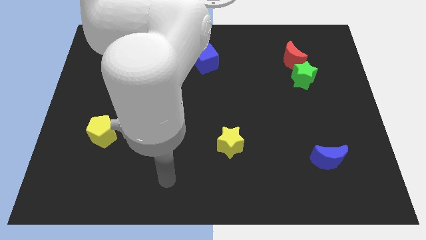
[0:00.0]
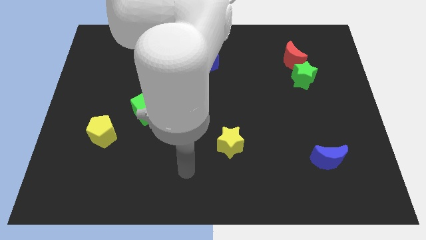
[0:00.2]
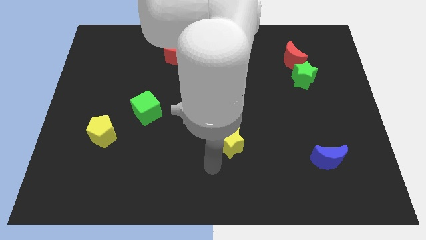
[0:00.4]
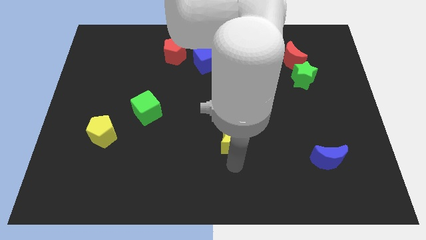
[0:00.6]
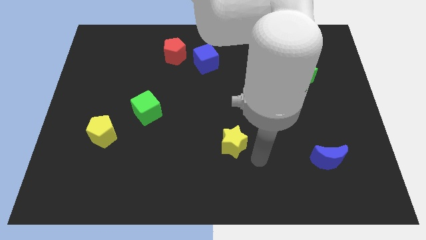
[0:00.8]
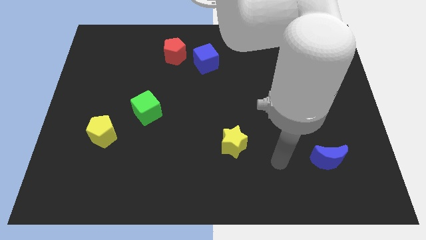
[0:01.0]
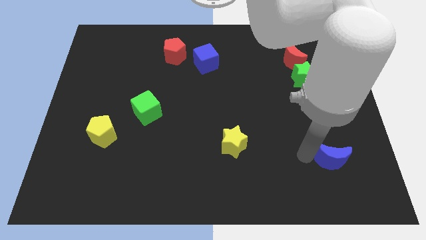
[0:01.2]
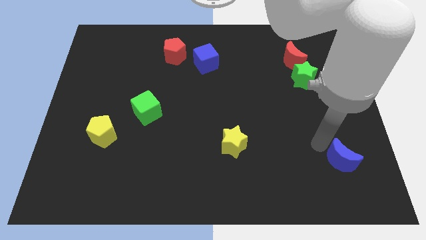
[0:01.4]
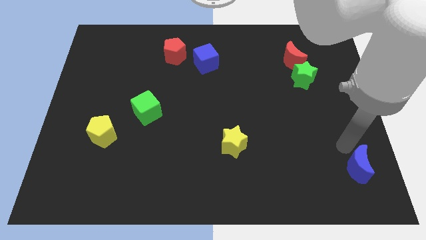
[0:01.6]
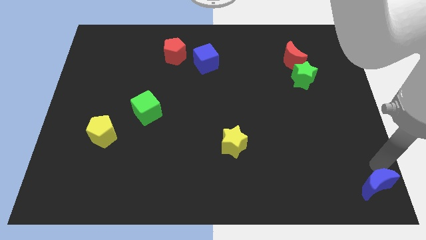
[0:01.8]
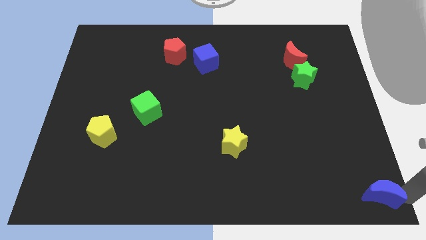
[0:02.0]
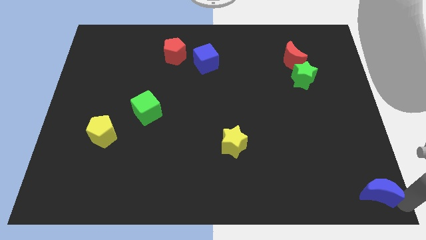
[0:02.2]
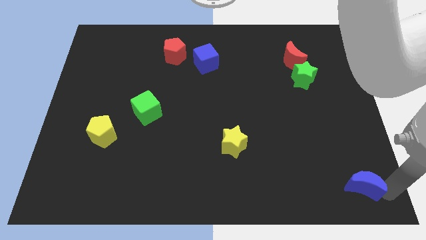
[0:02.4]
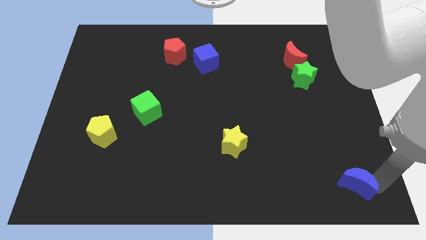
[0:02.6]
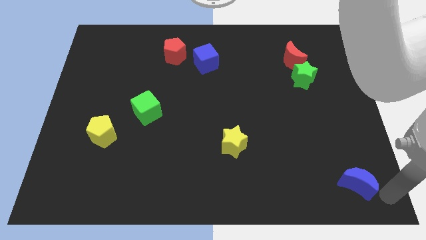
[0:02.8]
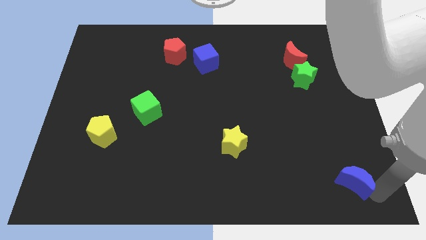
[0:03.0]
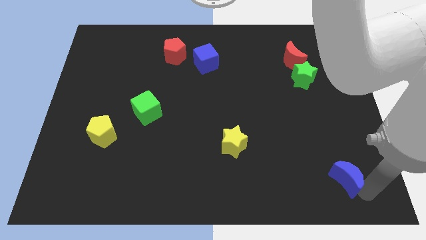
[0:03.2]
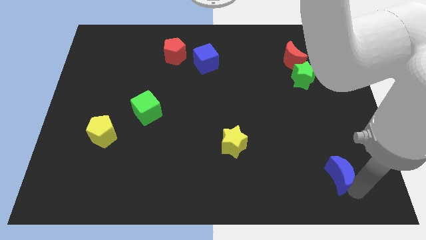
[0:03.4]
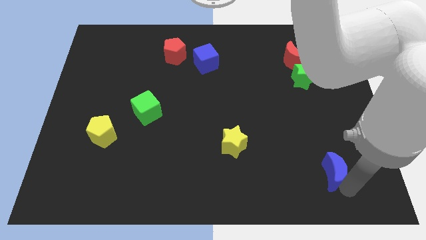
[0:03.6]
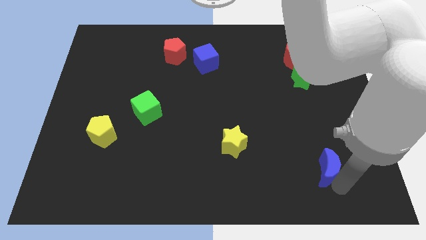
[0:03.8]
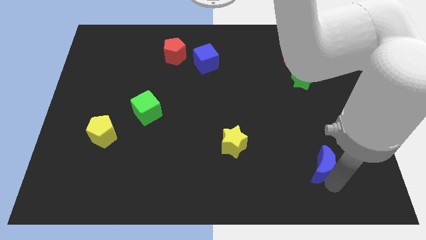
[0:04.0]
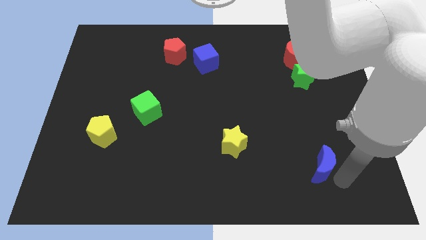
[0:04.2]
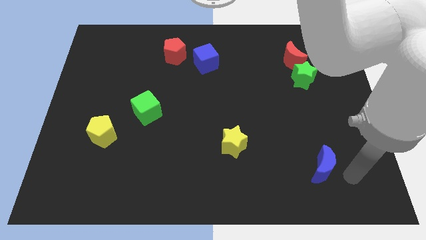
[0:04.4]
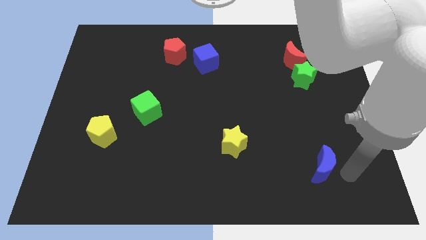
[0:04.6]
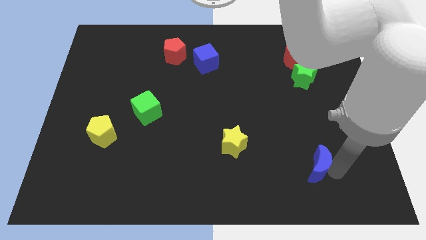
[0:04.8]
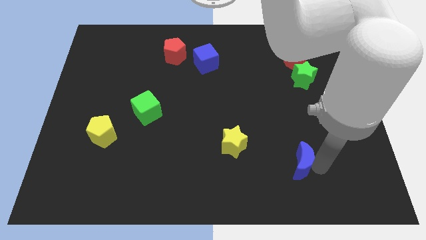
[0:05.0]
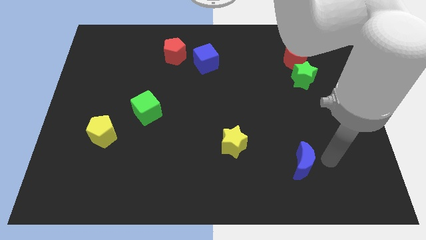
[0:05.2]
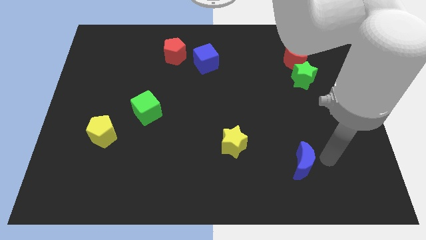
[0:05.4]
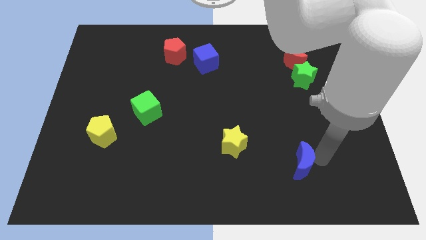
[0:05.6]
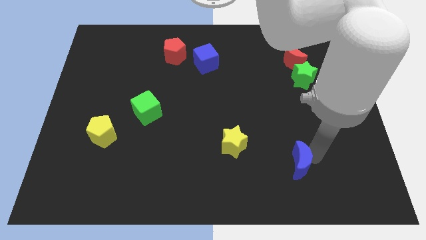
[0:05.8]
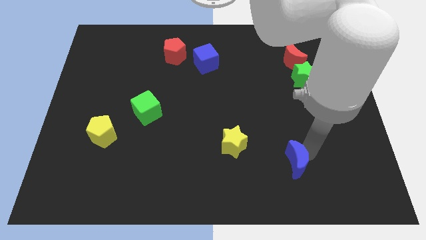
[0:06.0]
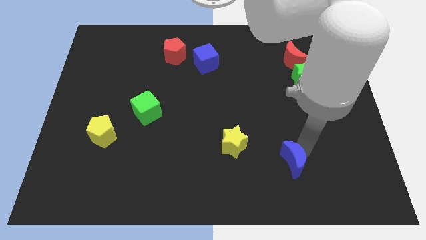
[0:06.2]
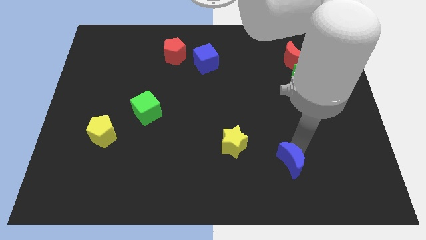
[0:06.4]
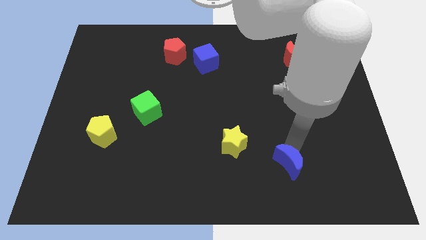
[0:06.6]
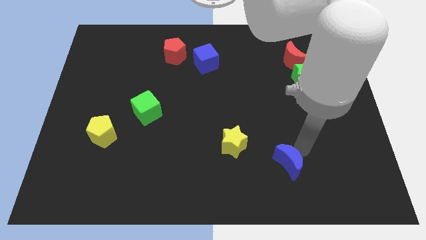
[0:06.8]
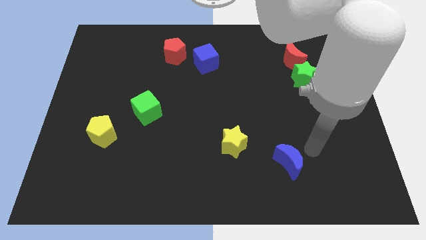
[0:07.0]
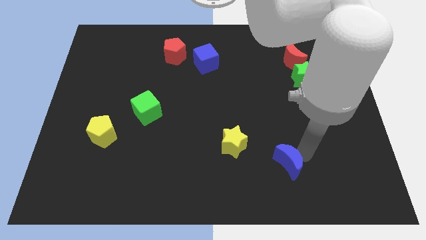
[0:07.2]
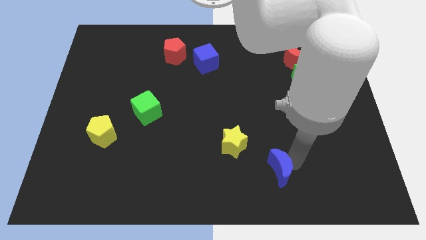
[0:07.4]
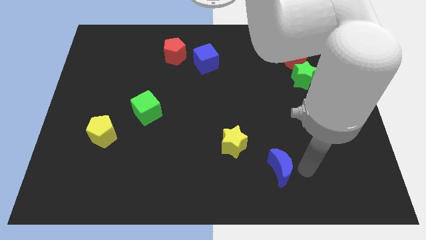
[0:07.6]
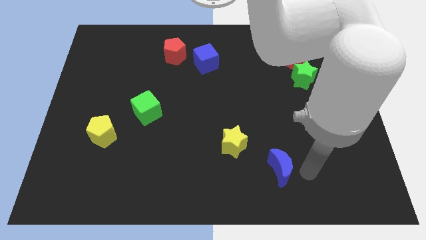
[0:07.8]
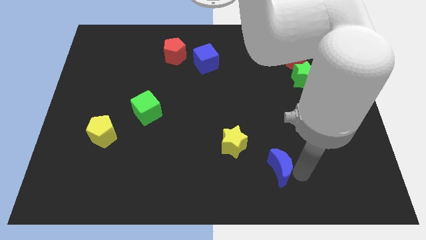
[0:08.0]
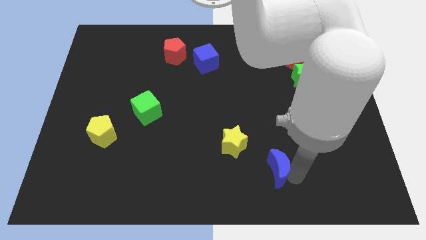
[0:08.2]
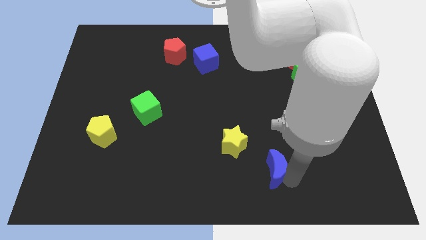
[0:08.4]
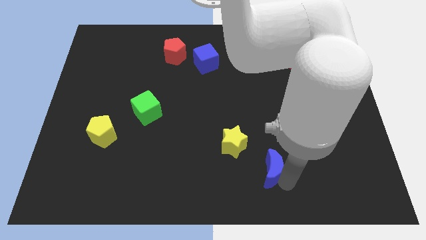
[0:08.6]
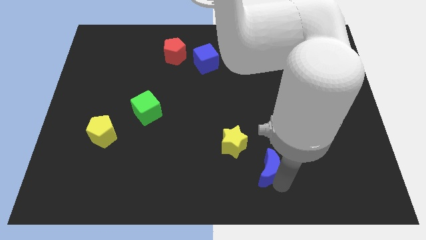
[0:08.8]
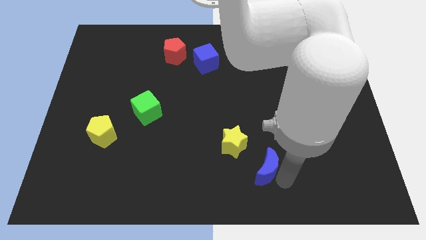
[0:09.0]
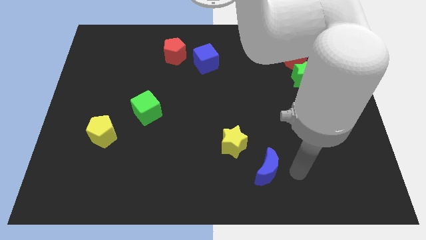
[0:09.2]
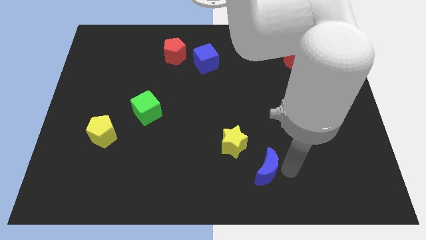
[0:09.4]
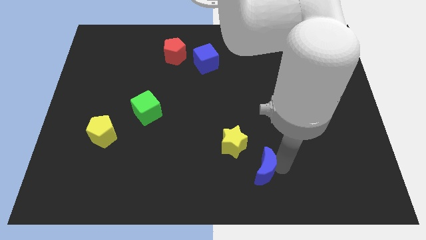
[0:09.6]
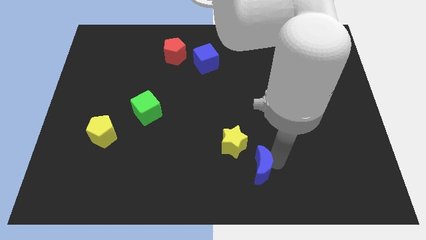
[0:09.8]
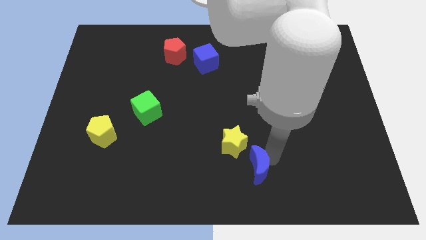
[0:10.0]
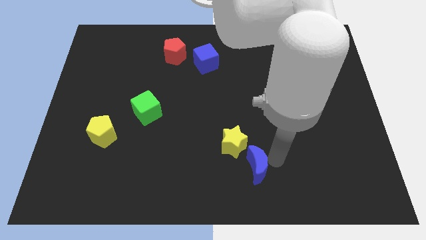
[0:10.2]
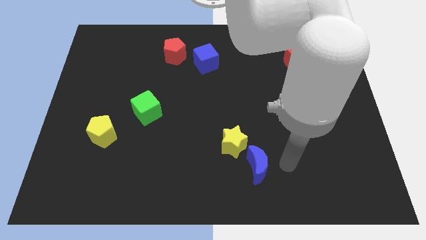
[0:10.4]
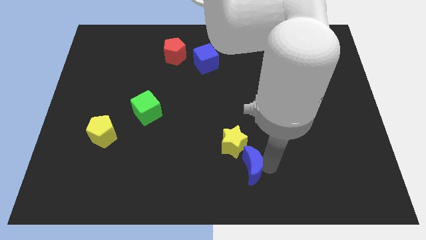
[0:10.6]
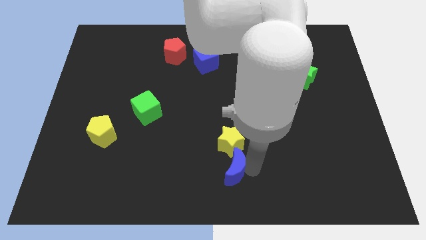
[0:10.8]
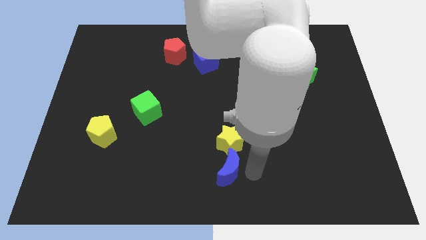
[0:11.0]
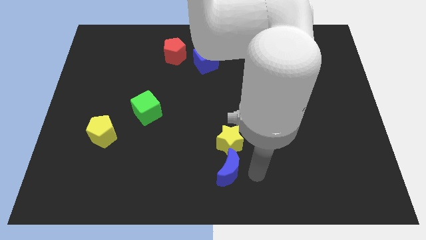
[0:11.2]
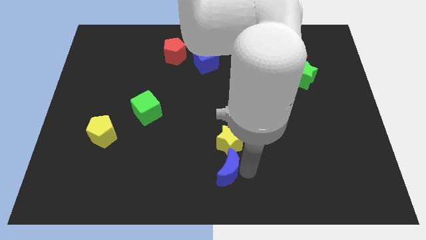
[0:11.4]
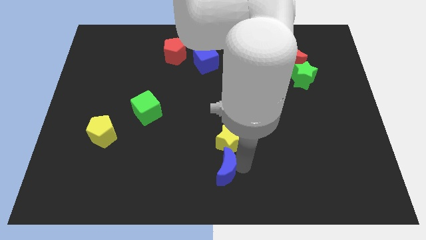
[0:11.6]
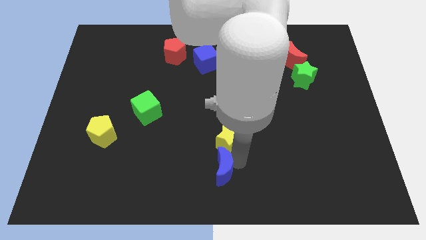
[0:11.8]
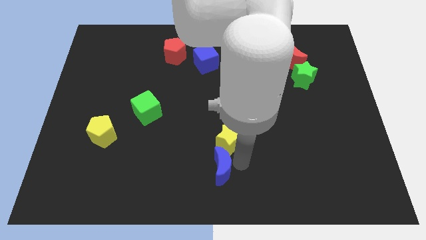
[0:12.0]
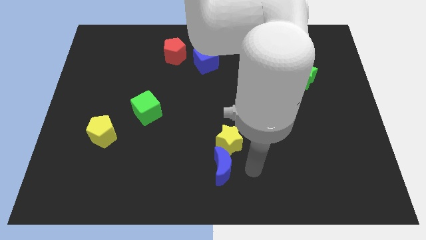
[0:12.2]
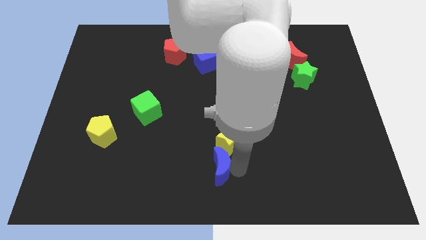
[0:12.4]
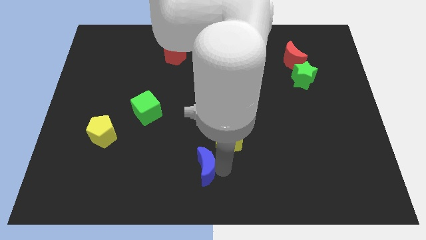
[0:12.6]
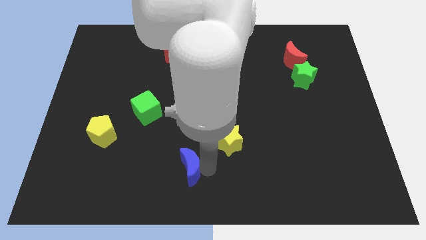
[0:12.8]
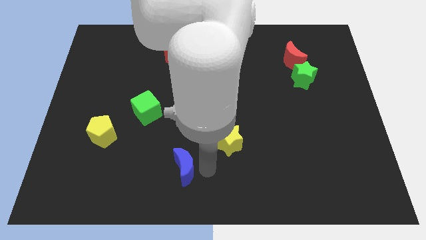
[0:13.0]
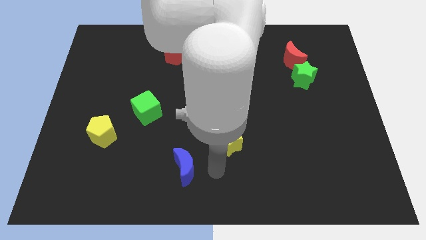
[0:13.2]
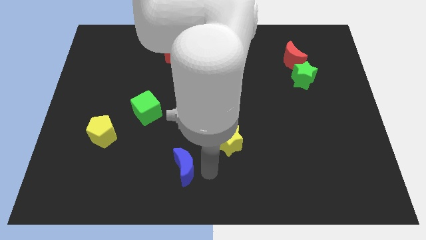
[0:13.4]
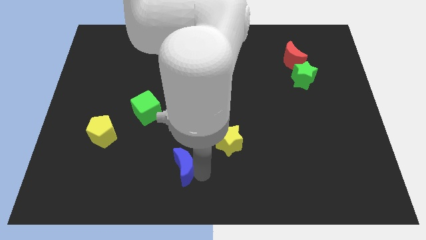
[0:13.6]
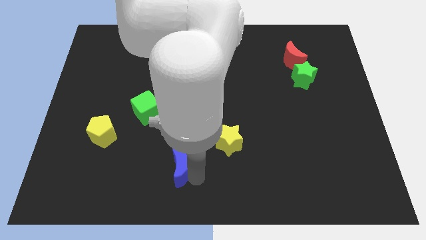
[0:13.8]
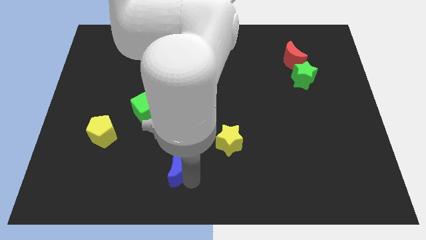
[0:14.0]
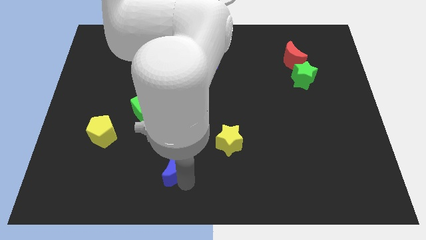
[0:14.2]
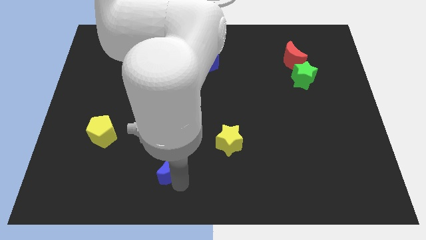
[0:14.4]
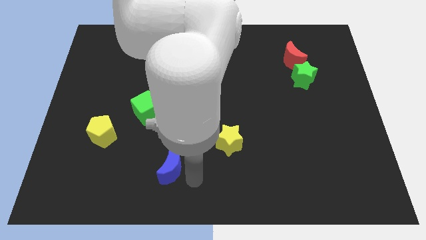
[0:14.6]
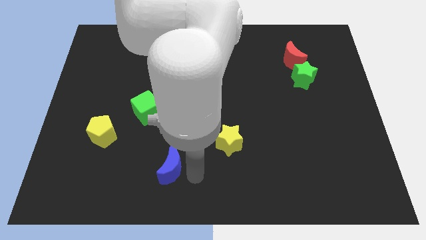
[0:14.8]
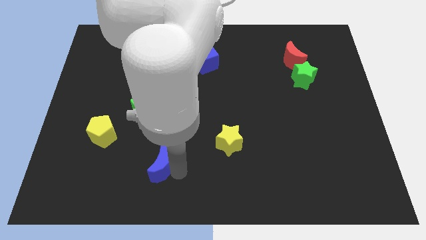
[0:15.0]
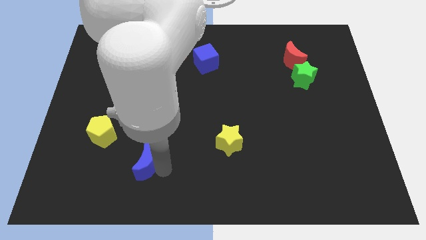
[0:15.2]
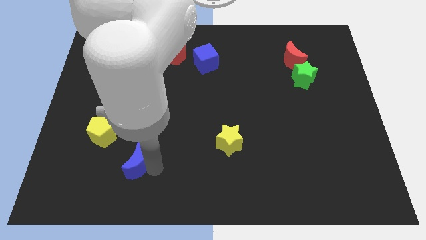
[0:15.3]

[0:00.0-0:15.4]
push the blue moon to the bottom right side of the yellow pentagon
